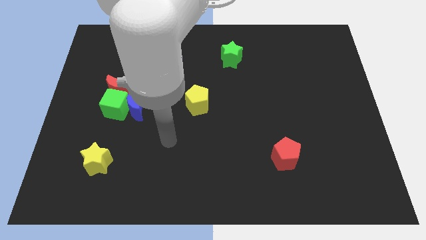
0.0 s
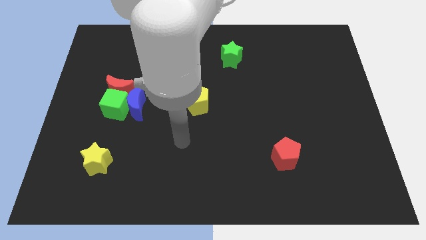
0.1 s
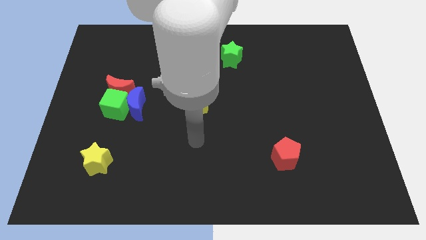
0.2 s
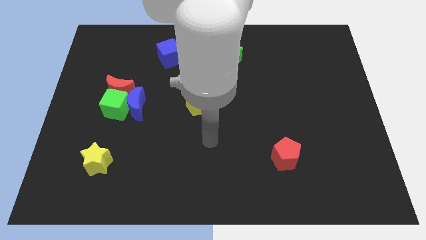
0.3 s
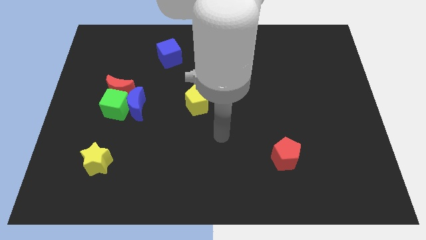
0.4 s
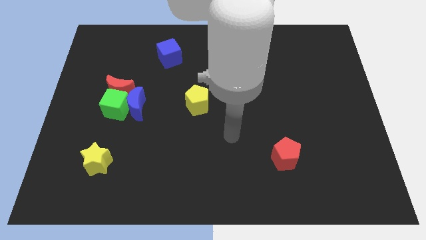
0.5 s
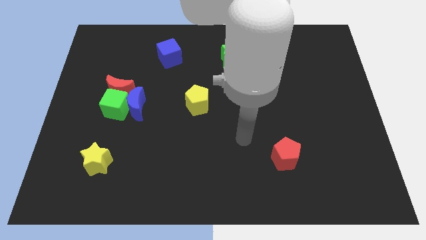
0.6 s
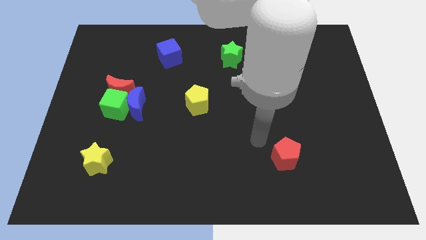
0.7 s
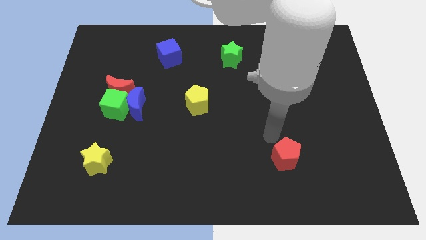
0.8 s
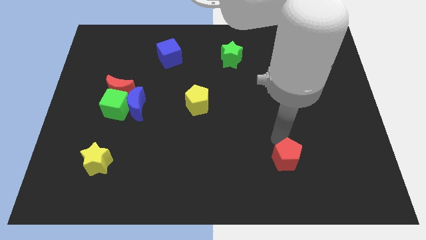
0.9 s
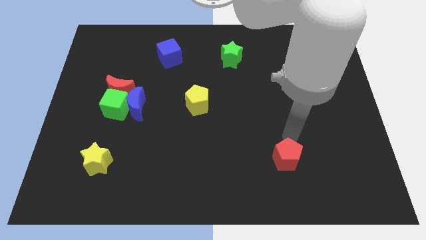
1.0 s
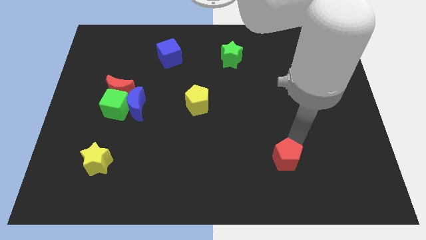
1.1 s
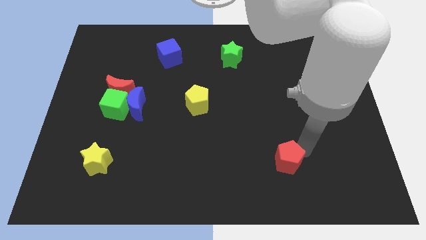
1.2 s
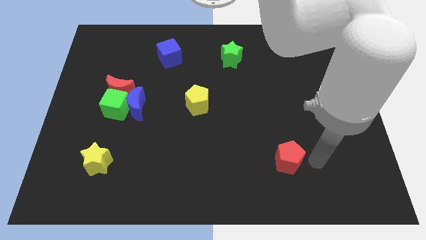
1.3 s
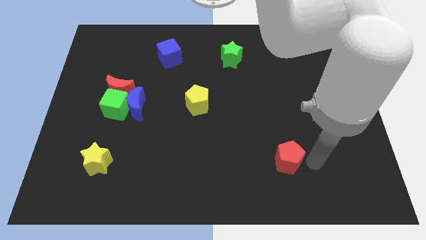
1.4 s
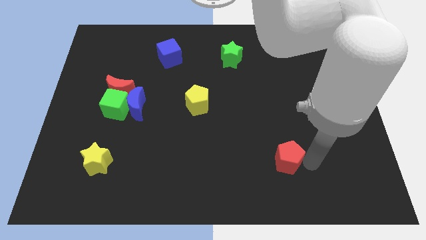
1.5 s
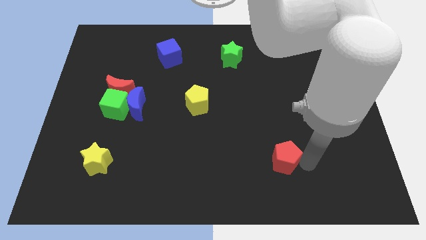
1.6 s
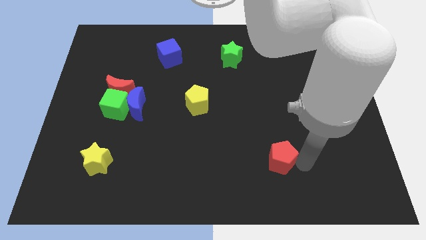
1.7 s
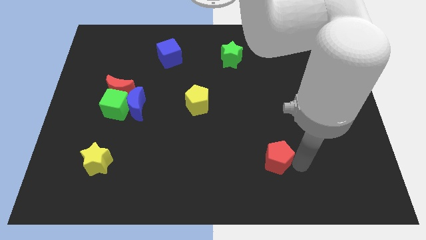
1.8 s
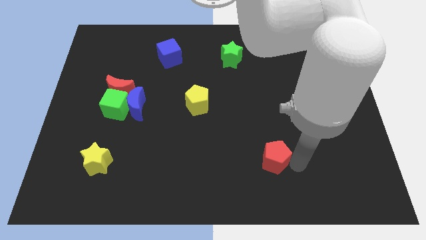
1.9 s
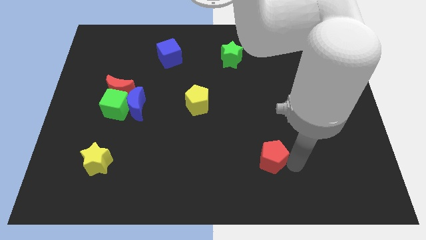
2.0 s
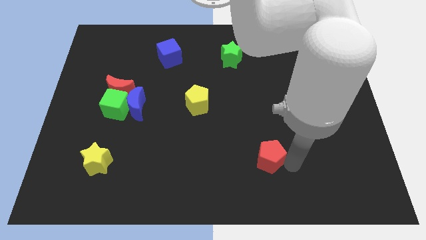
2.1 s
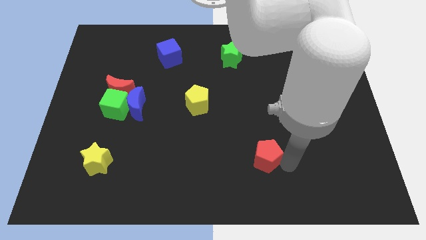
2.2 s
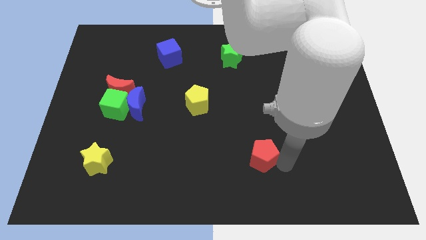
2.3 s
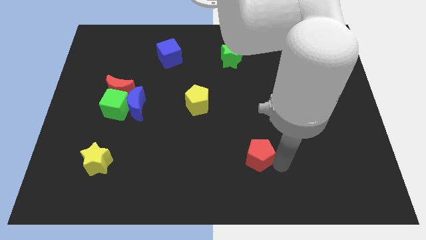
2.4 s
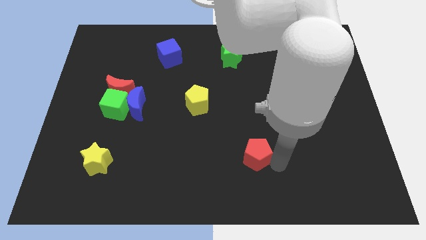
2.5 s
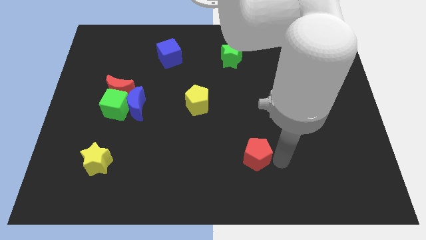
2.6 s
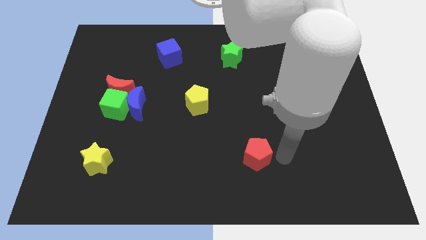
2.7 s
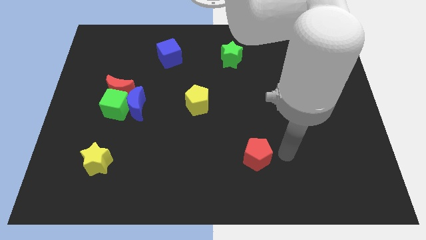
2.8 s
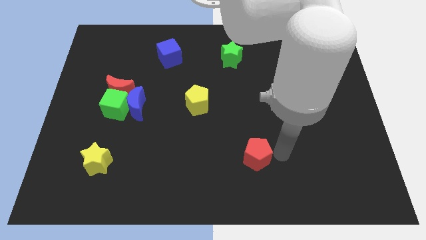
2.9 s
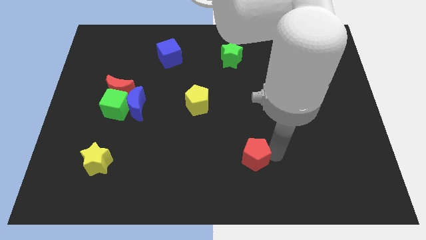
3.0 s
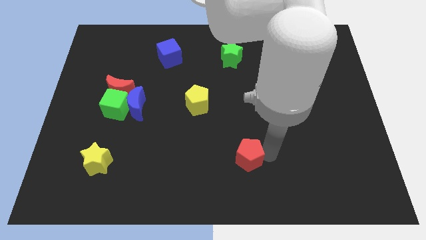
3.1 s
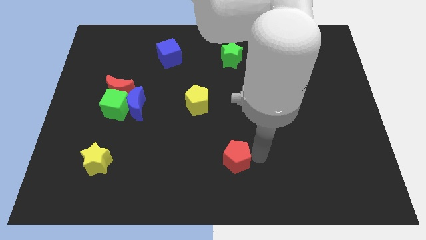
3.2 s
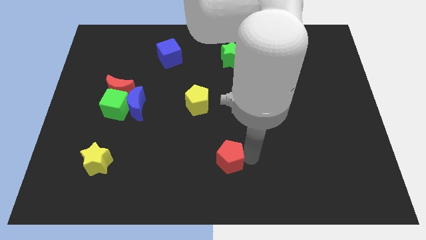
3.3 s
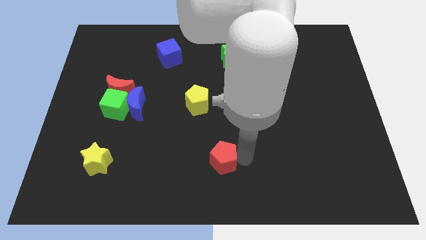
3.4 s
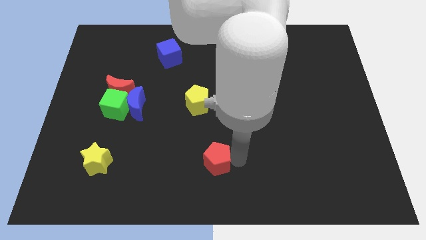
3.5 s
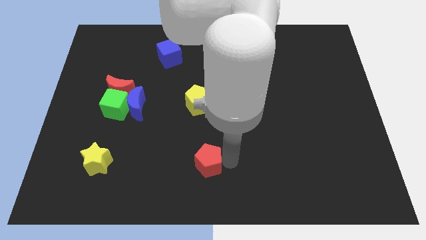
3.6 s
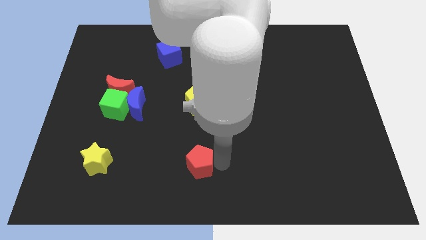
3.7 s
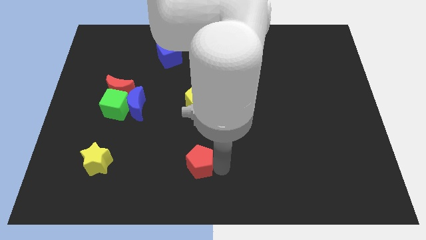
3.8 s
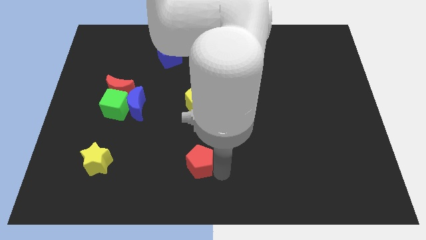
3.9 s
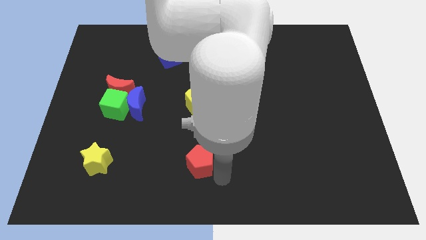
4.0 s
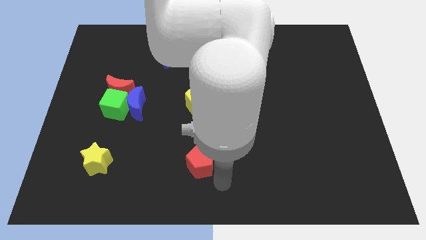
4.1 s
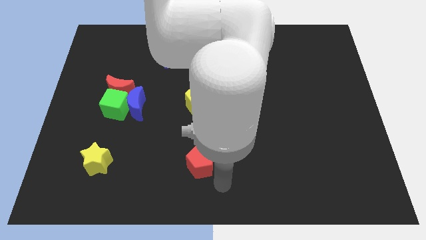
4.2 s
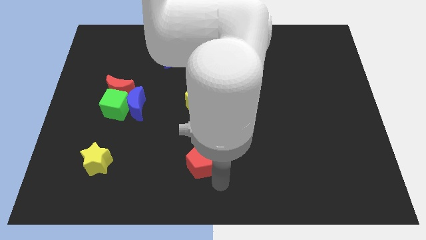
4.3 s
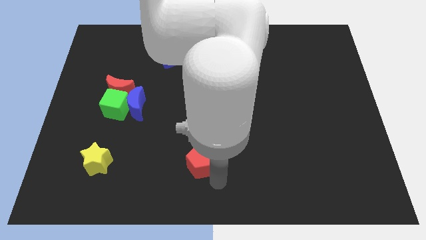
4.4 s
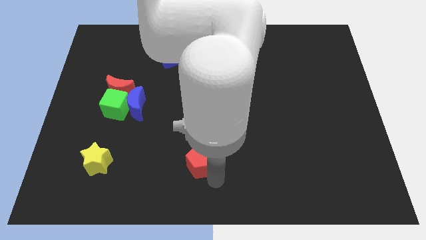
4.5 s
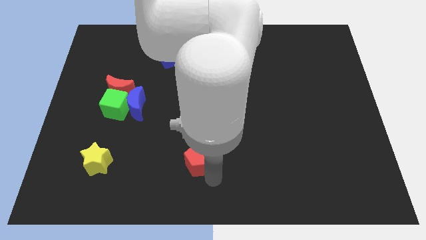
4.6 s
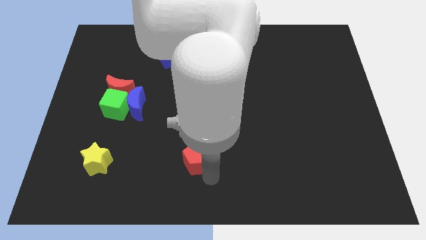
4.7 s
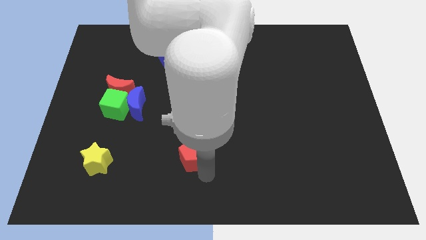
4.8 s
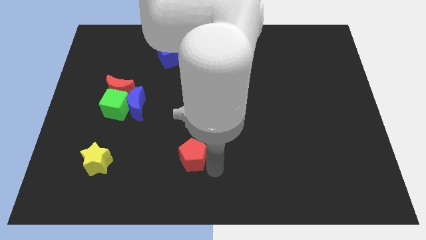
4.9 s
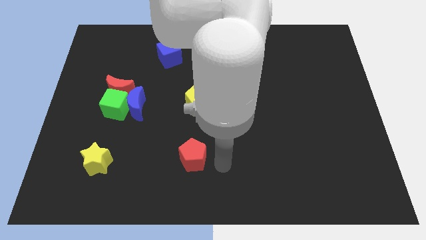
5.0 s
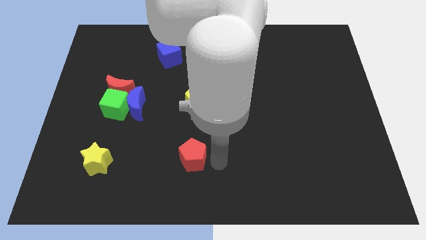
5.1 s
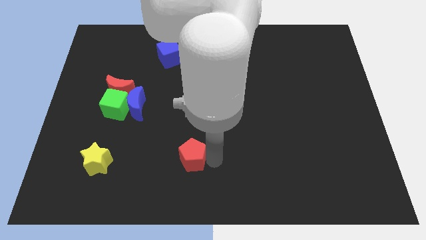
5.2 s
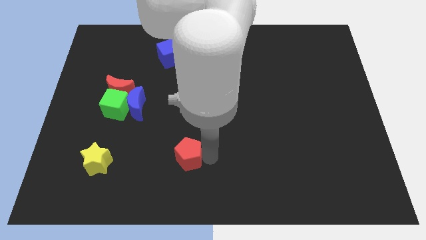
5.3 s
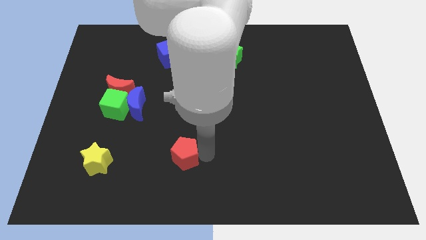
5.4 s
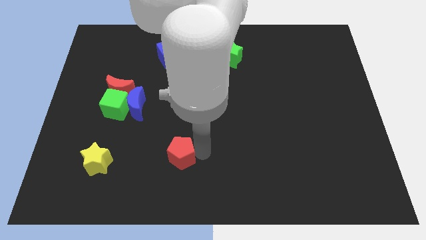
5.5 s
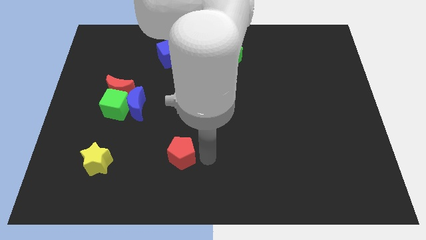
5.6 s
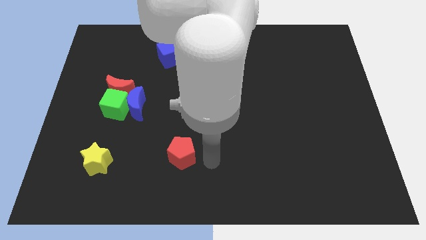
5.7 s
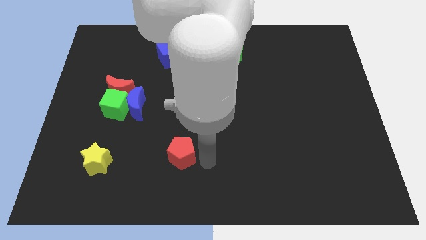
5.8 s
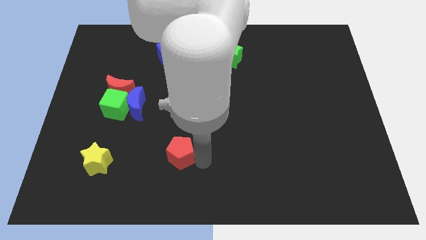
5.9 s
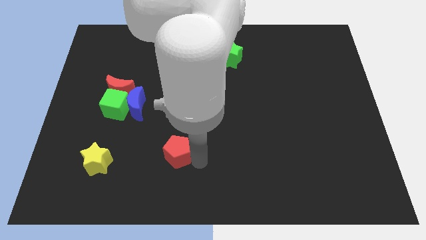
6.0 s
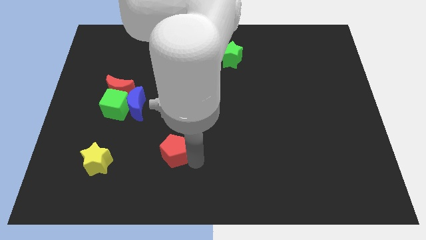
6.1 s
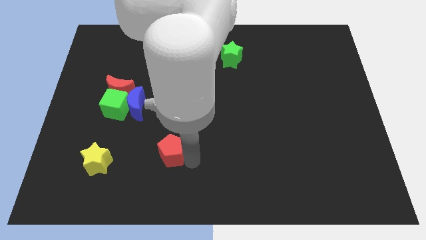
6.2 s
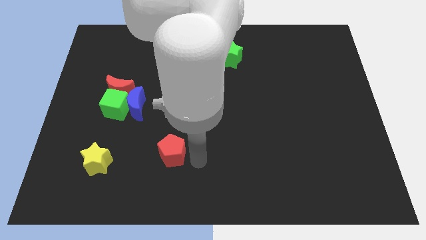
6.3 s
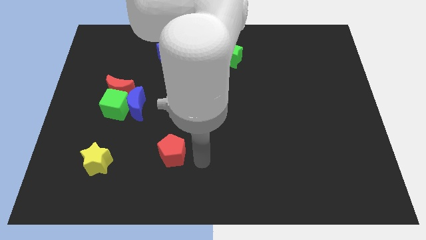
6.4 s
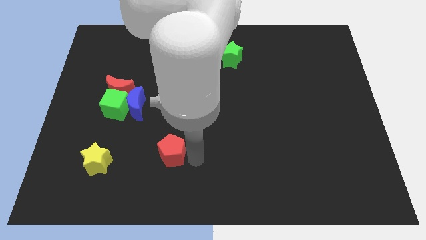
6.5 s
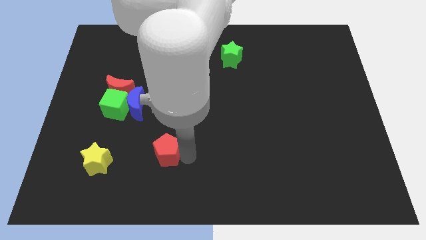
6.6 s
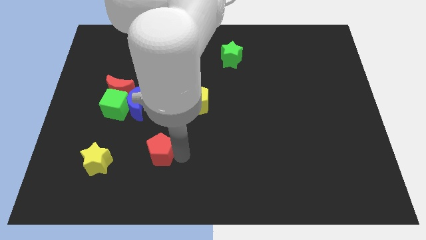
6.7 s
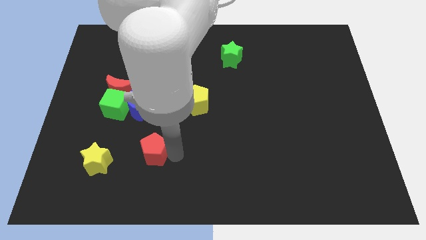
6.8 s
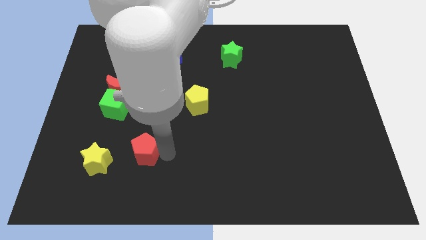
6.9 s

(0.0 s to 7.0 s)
slide the red pentagon to the bottom side of the blue moon

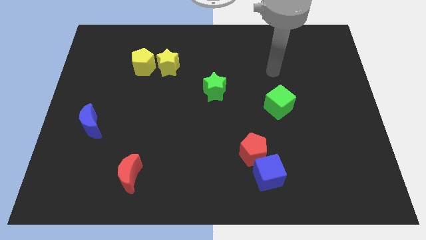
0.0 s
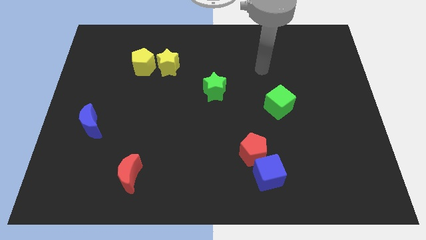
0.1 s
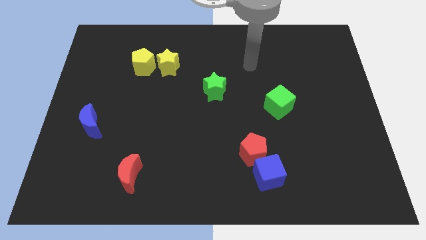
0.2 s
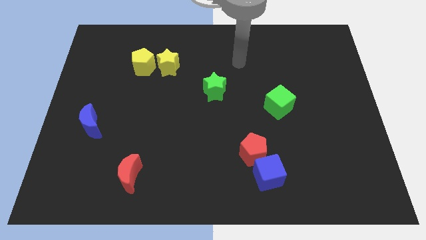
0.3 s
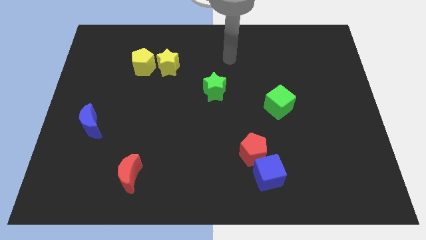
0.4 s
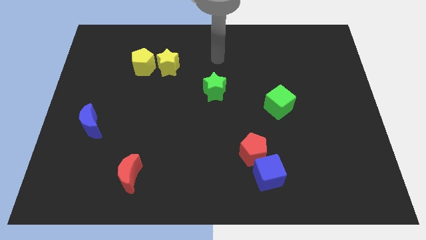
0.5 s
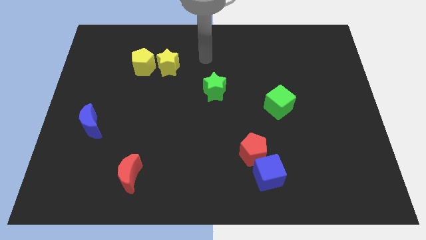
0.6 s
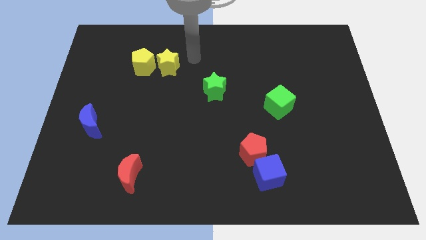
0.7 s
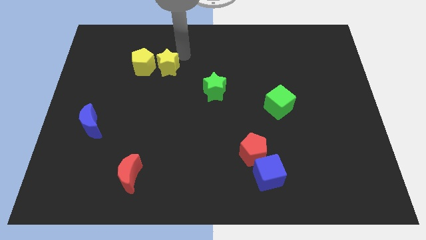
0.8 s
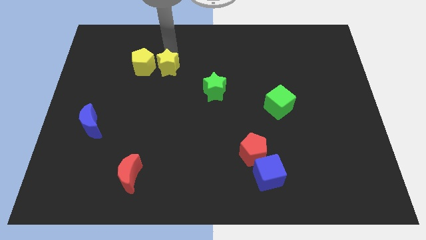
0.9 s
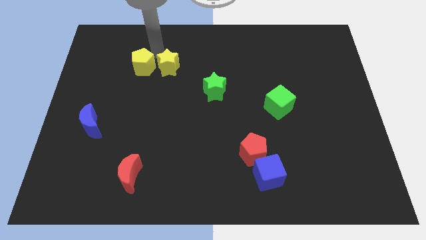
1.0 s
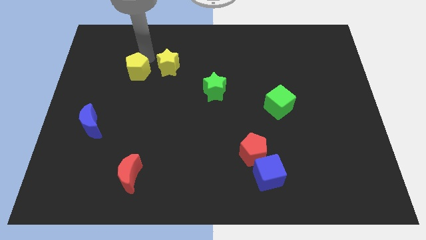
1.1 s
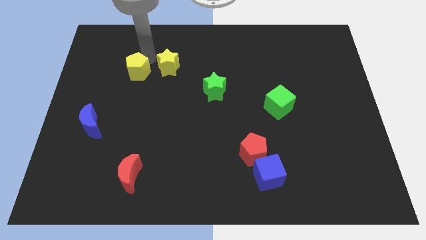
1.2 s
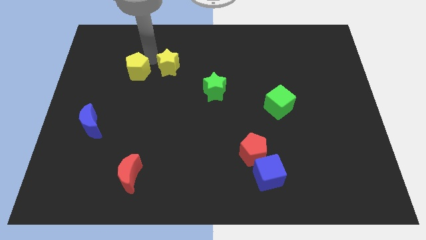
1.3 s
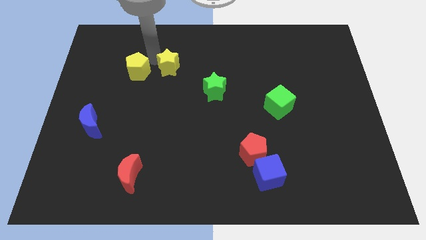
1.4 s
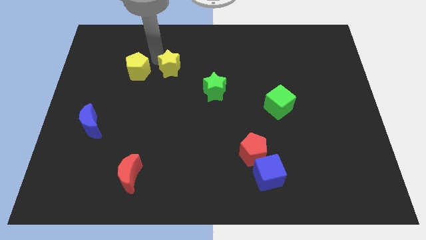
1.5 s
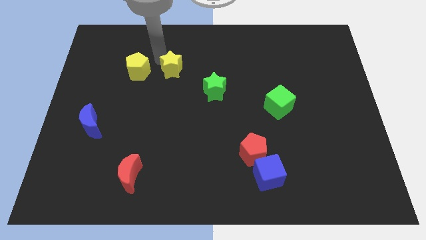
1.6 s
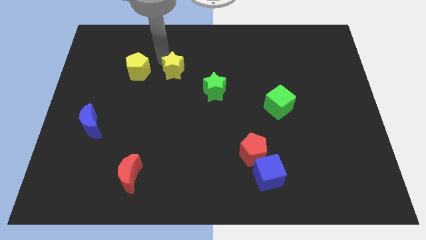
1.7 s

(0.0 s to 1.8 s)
push the yellow star to the top left side of the green star
